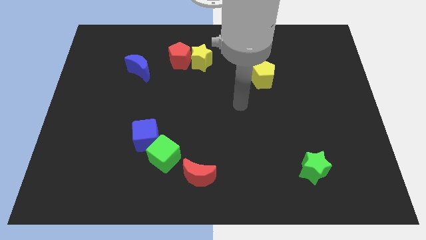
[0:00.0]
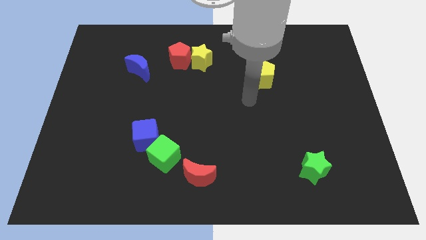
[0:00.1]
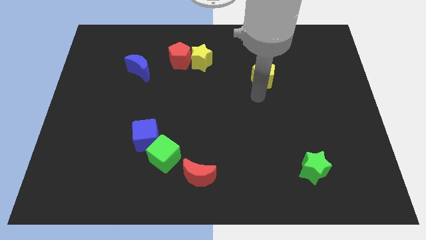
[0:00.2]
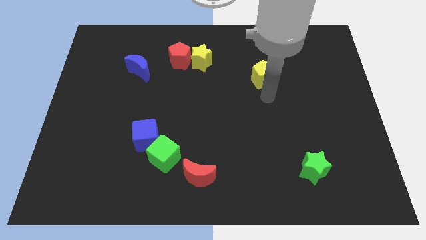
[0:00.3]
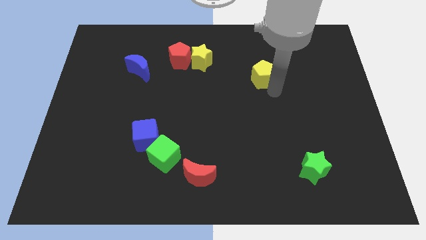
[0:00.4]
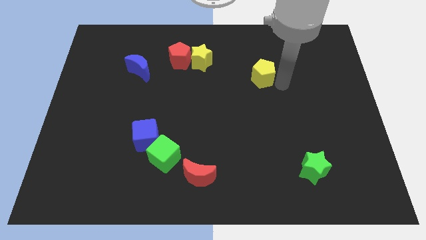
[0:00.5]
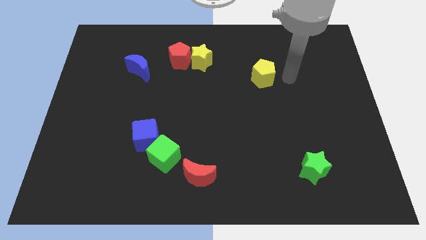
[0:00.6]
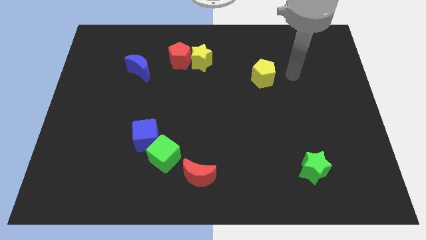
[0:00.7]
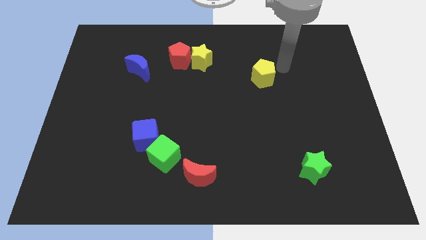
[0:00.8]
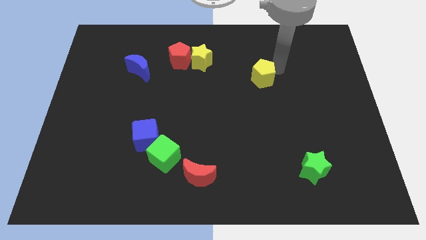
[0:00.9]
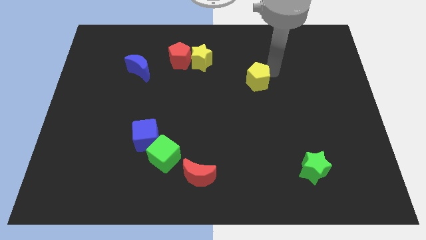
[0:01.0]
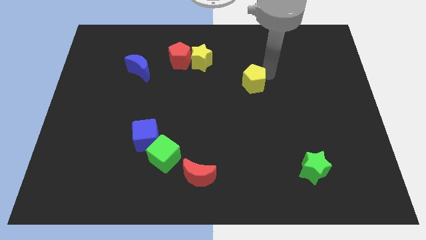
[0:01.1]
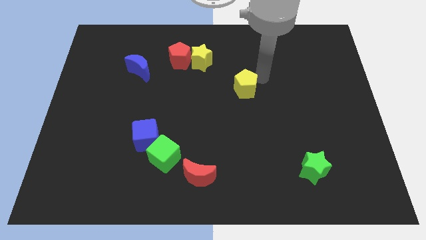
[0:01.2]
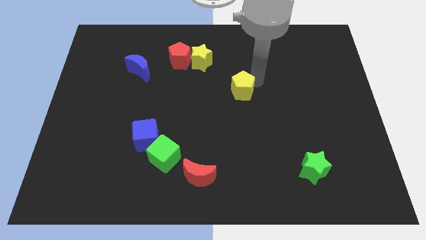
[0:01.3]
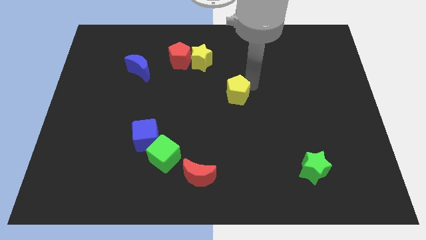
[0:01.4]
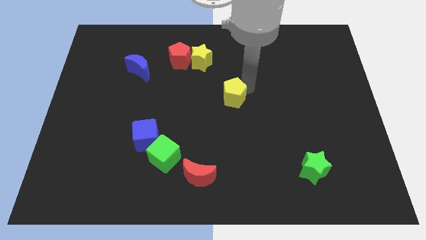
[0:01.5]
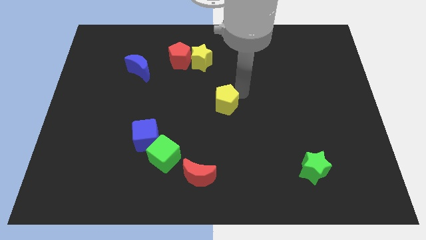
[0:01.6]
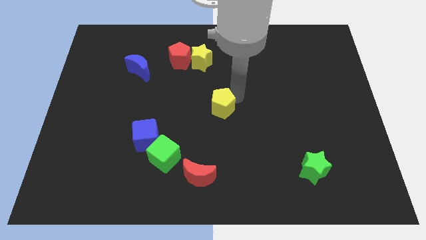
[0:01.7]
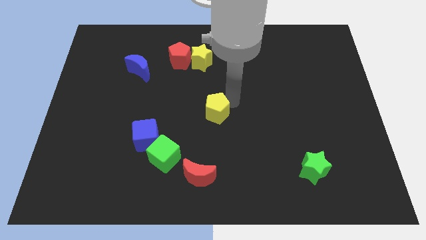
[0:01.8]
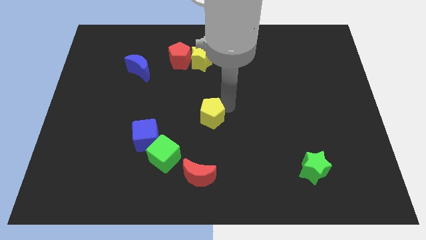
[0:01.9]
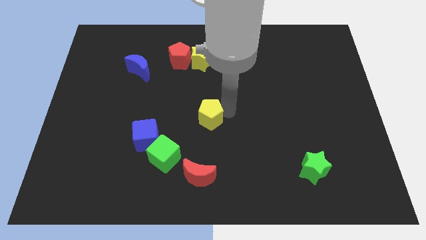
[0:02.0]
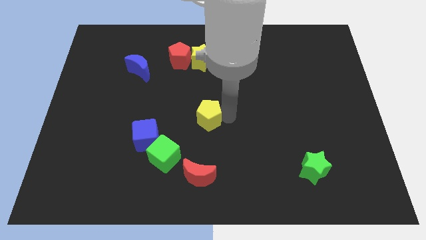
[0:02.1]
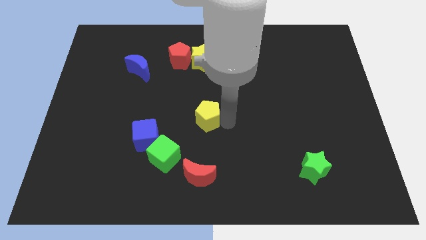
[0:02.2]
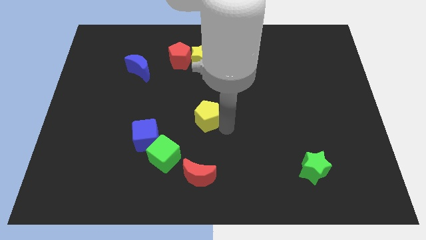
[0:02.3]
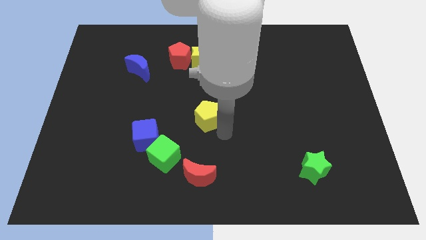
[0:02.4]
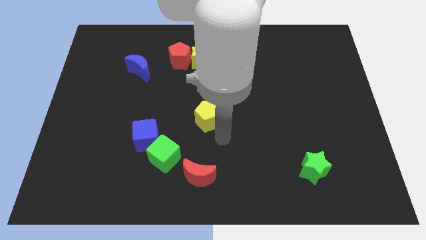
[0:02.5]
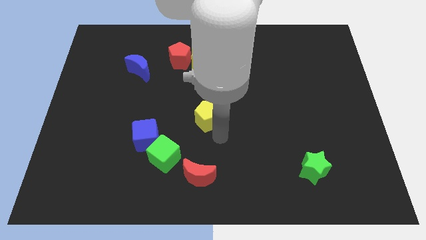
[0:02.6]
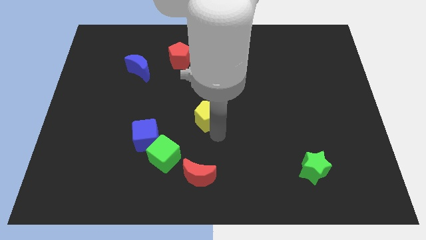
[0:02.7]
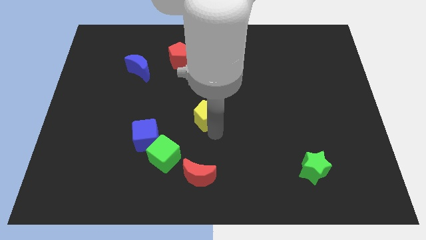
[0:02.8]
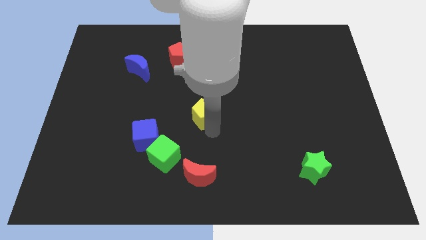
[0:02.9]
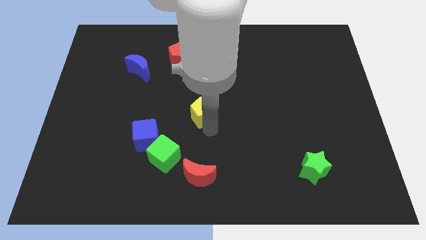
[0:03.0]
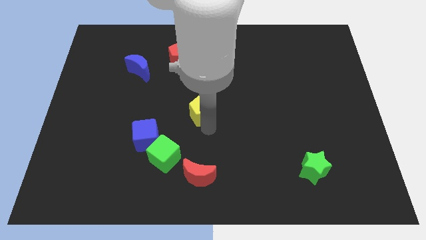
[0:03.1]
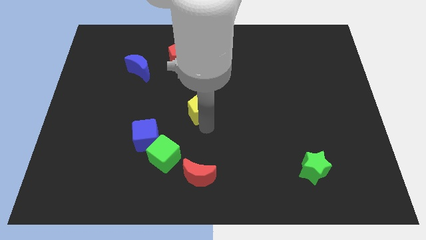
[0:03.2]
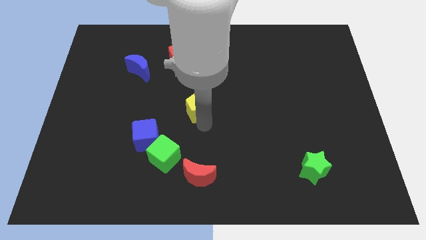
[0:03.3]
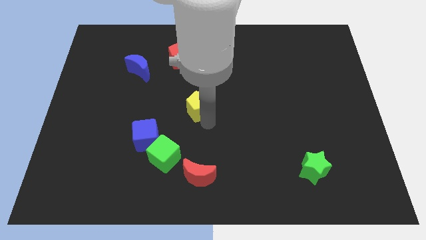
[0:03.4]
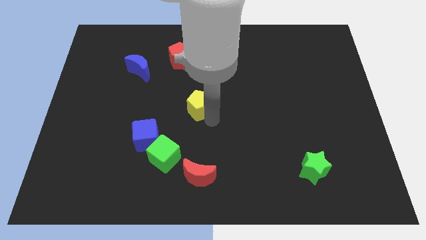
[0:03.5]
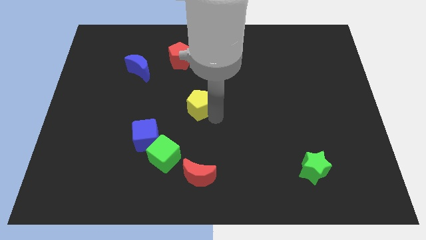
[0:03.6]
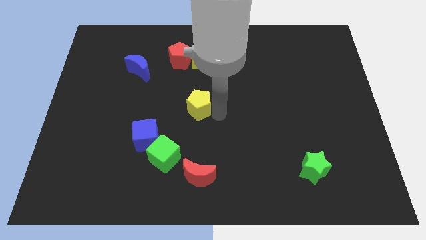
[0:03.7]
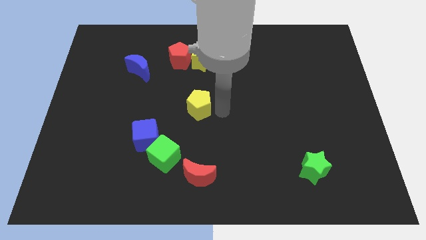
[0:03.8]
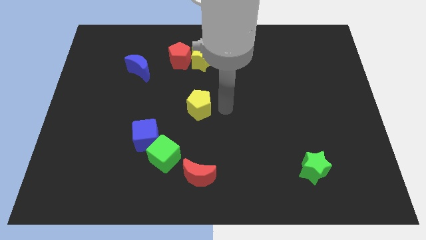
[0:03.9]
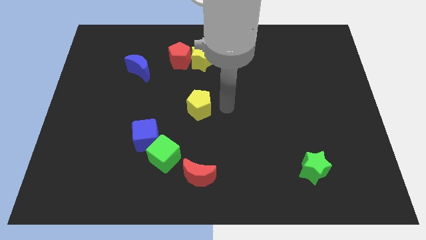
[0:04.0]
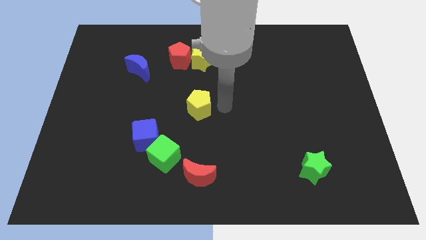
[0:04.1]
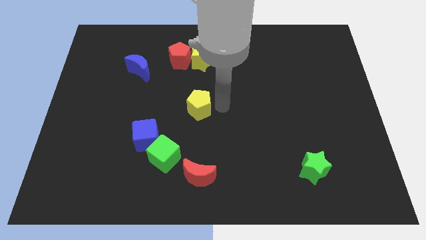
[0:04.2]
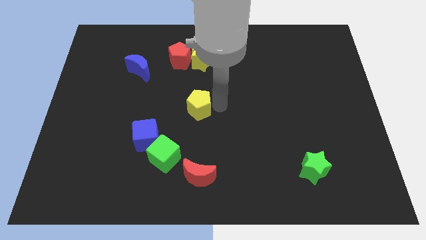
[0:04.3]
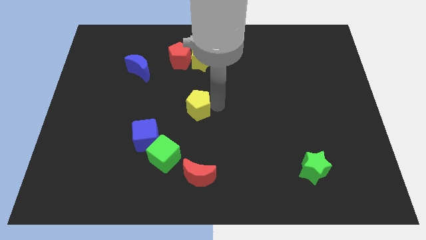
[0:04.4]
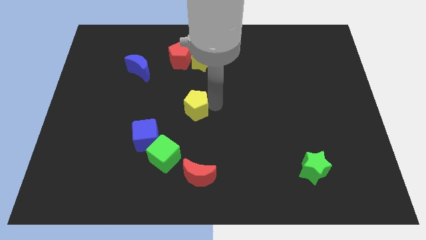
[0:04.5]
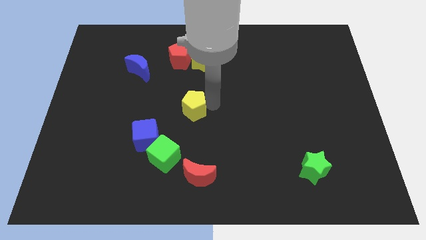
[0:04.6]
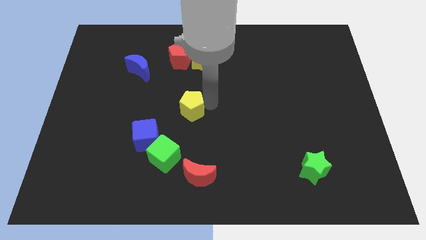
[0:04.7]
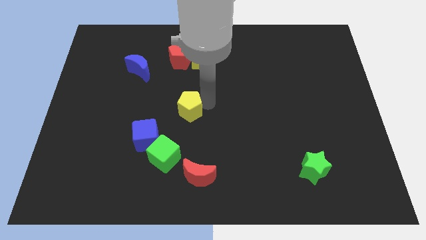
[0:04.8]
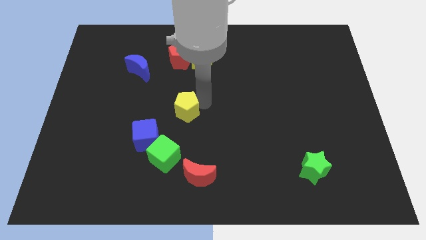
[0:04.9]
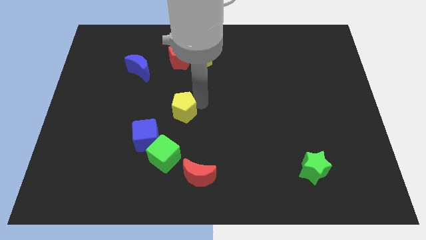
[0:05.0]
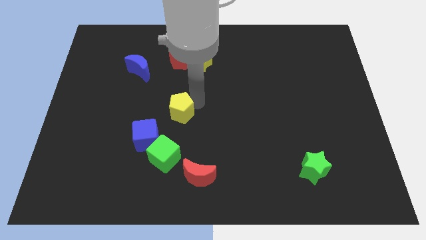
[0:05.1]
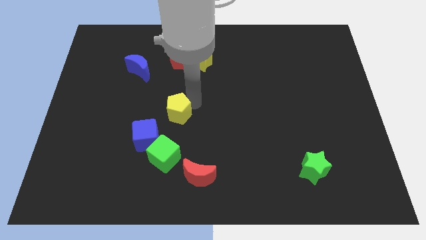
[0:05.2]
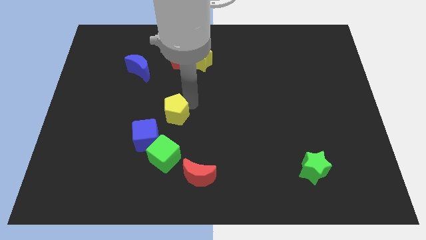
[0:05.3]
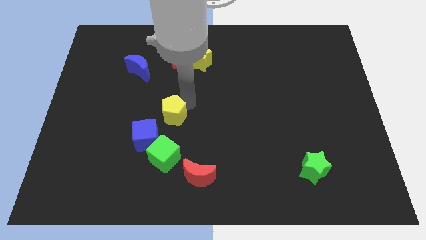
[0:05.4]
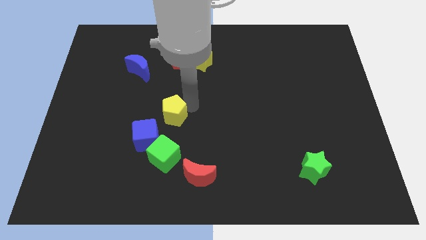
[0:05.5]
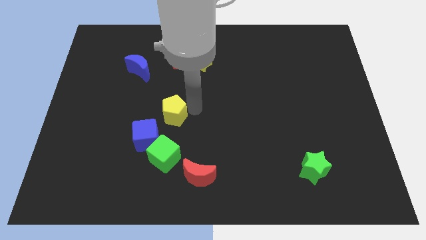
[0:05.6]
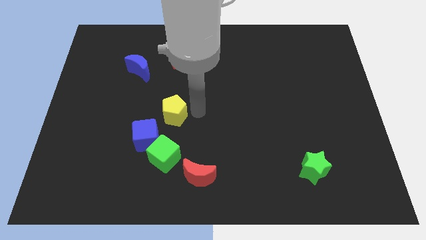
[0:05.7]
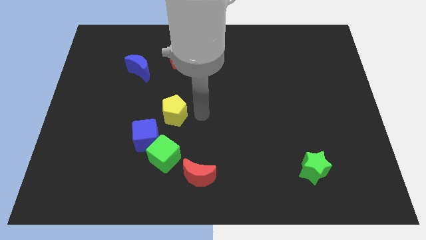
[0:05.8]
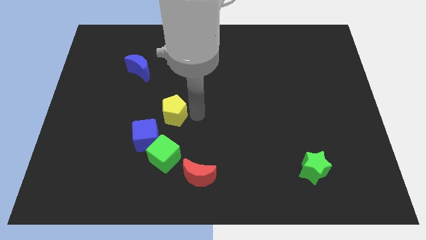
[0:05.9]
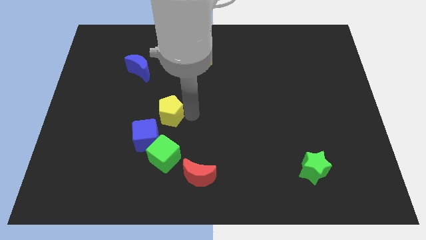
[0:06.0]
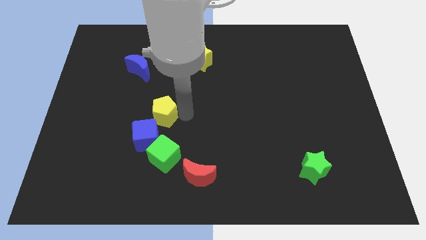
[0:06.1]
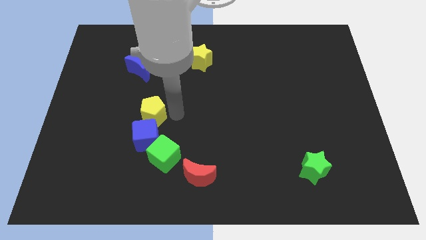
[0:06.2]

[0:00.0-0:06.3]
move the yellow pentagon diagonally up and to the left of the blue cube

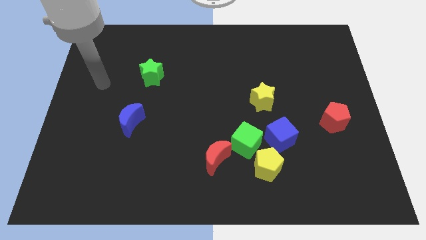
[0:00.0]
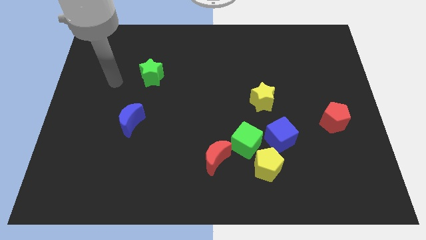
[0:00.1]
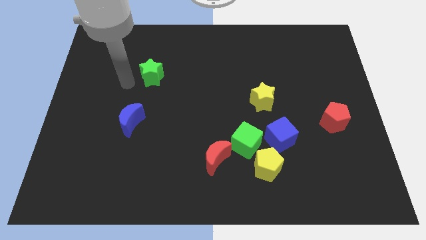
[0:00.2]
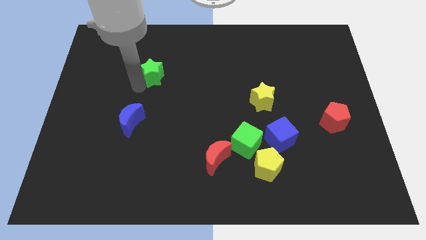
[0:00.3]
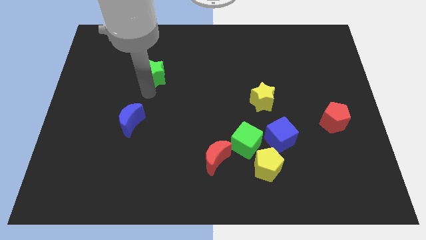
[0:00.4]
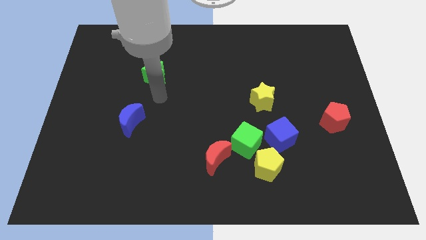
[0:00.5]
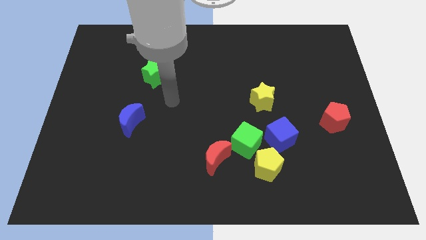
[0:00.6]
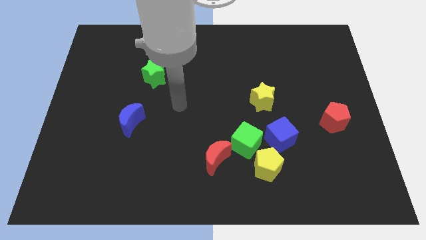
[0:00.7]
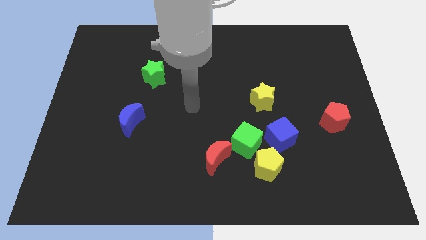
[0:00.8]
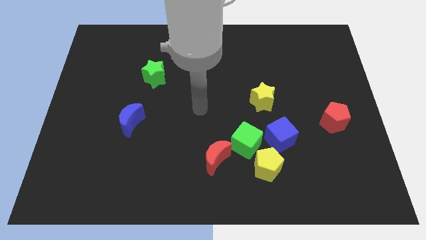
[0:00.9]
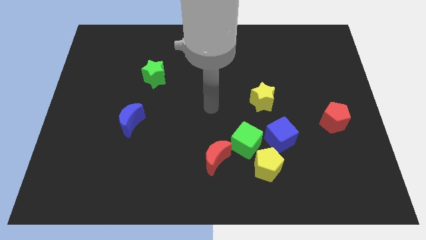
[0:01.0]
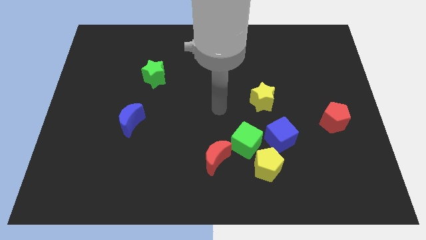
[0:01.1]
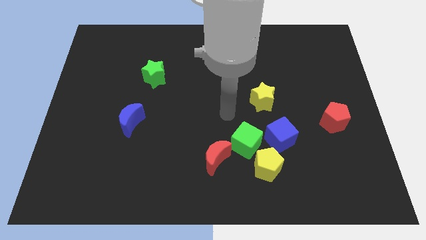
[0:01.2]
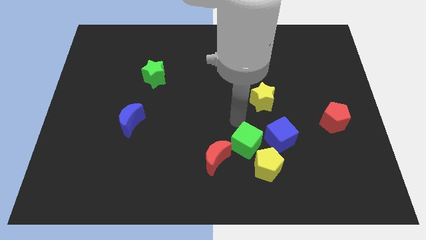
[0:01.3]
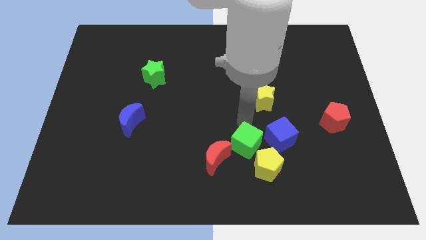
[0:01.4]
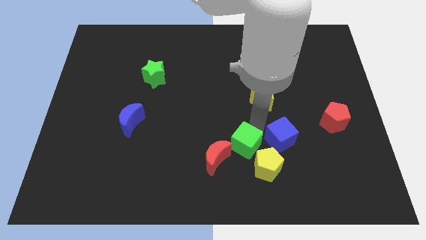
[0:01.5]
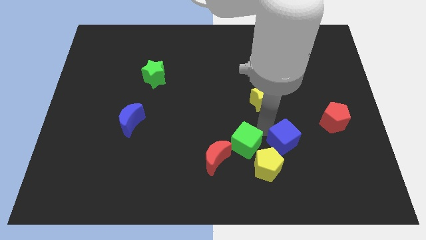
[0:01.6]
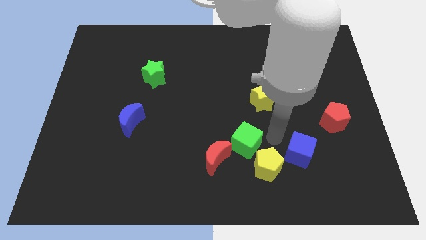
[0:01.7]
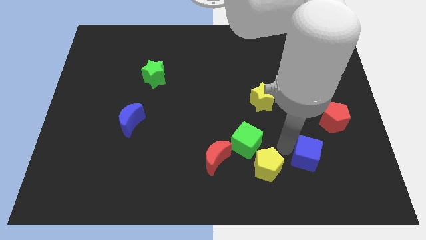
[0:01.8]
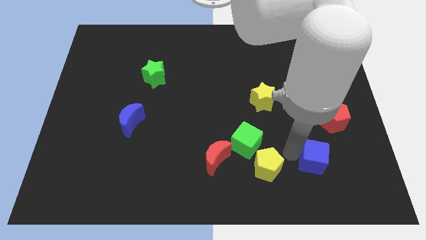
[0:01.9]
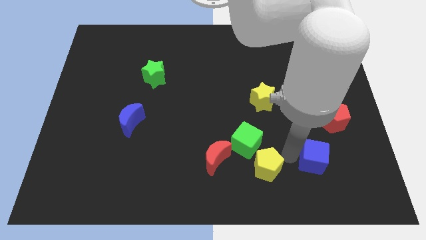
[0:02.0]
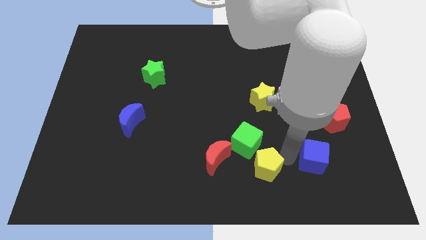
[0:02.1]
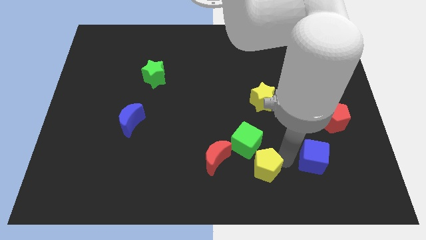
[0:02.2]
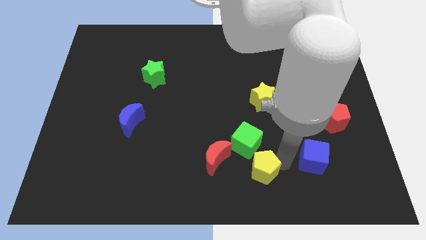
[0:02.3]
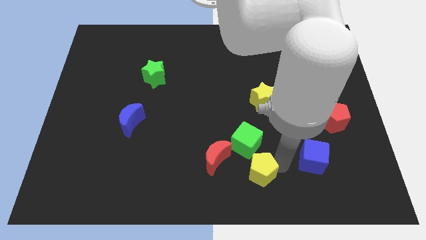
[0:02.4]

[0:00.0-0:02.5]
slide the yellow pentagon to the bottom right of the red moon
